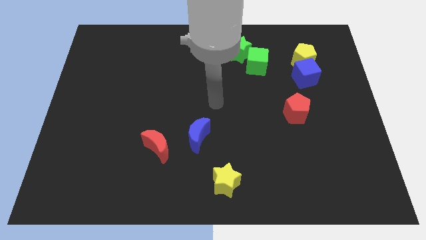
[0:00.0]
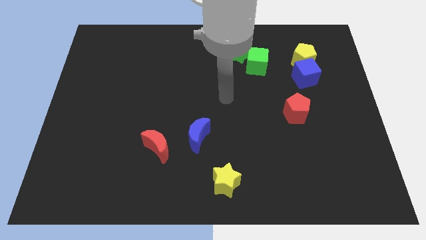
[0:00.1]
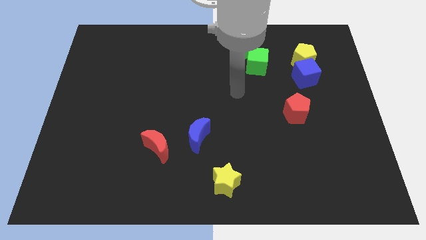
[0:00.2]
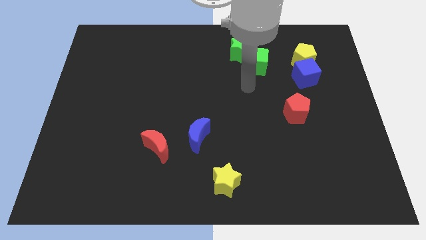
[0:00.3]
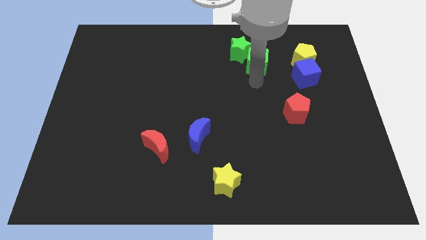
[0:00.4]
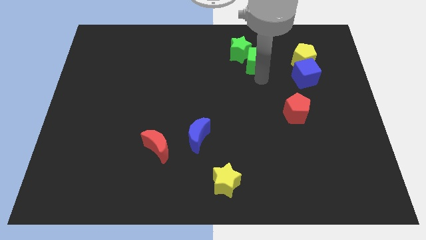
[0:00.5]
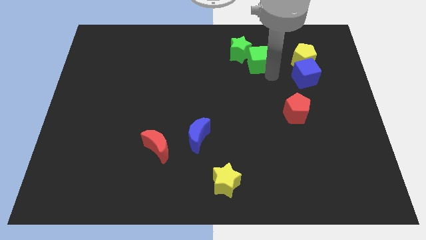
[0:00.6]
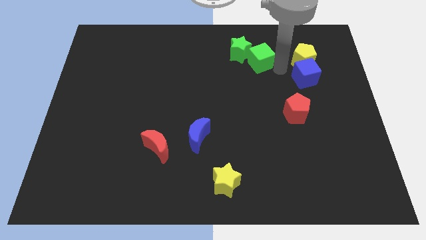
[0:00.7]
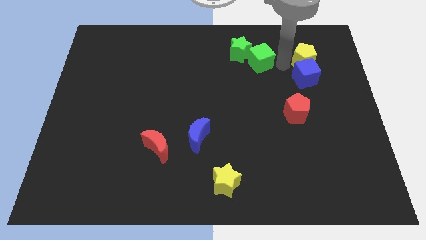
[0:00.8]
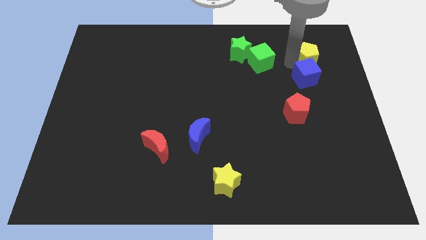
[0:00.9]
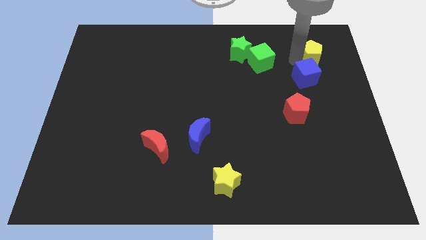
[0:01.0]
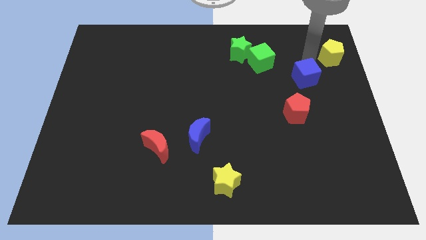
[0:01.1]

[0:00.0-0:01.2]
move the blue cube away from the yellow pentagon

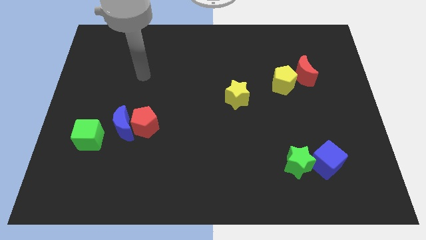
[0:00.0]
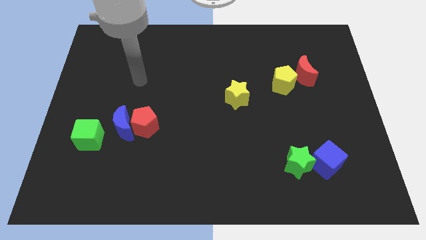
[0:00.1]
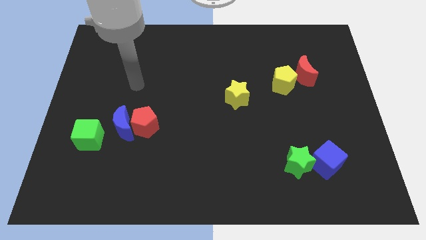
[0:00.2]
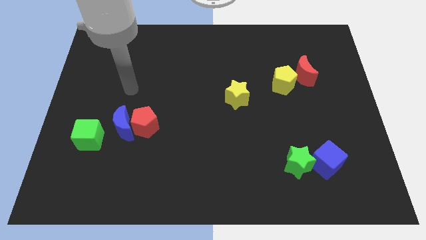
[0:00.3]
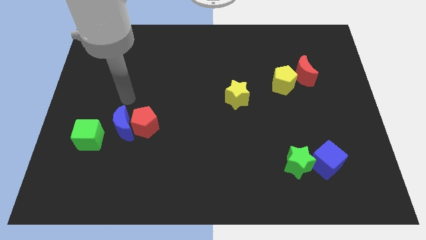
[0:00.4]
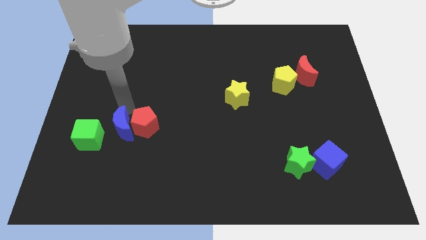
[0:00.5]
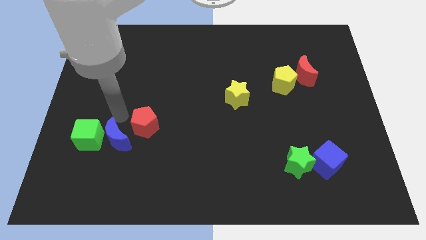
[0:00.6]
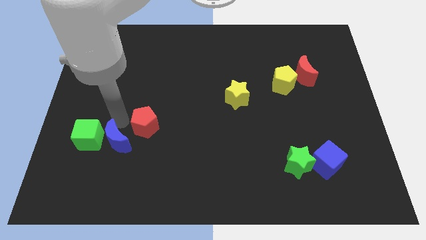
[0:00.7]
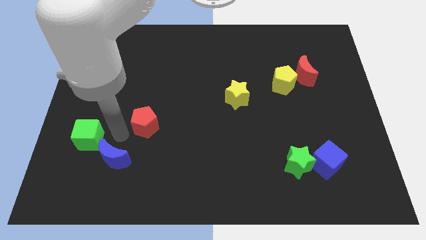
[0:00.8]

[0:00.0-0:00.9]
separate the red pentagon from the blue moon

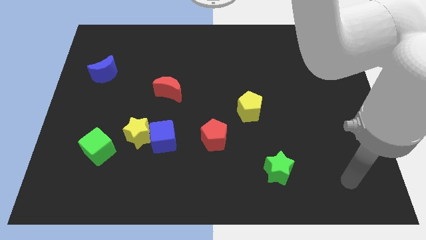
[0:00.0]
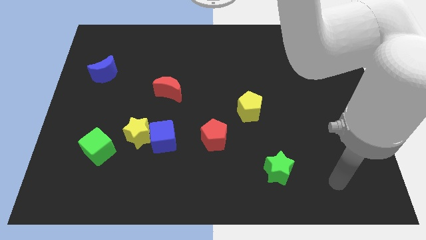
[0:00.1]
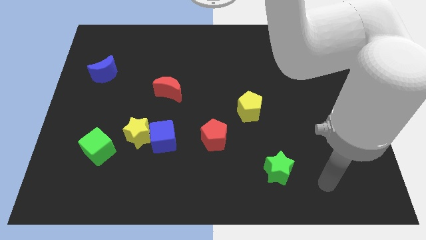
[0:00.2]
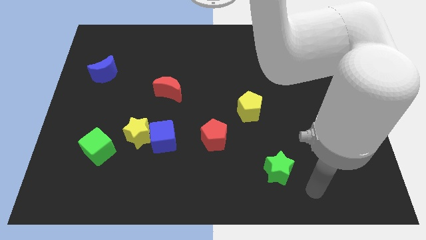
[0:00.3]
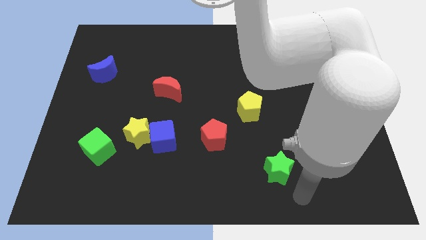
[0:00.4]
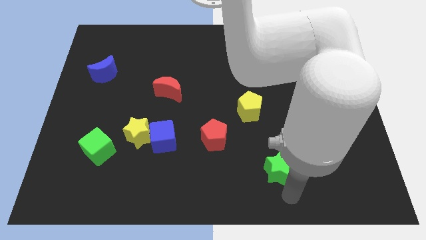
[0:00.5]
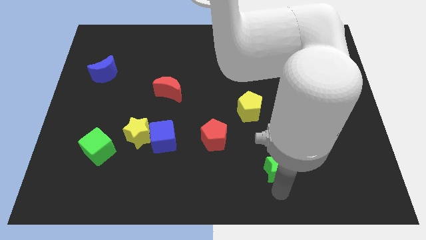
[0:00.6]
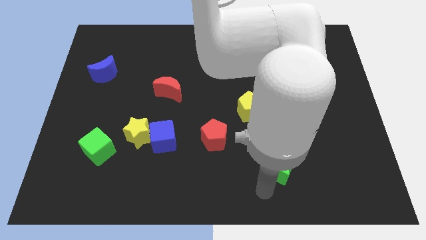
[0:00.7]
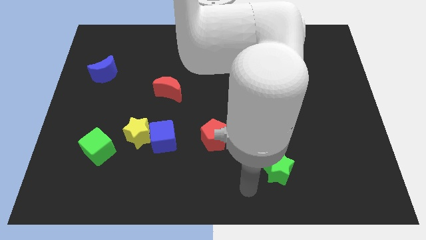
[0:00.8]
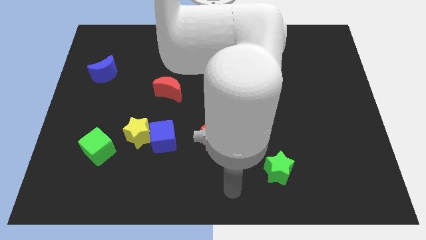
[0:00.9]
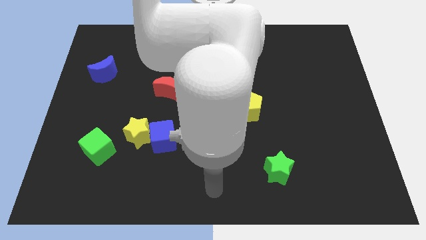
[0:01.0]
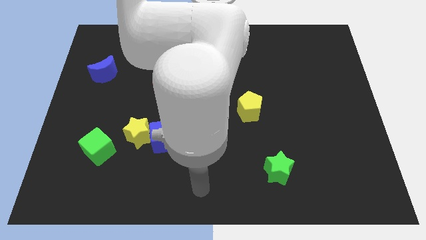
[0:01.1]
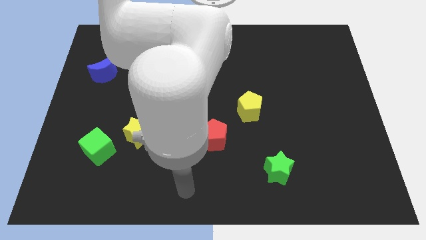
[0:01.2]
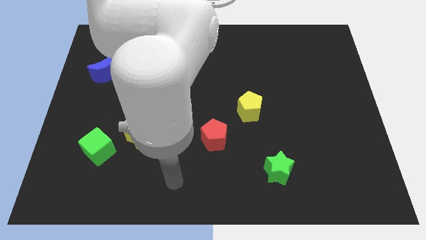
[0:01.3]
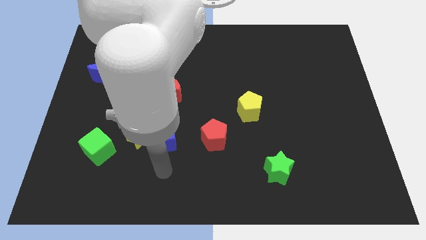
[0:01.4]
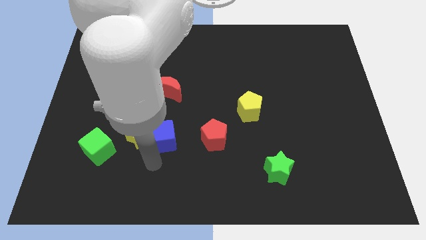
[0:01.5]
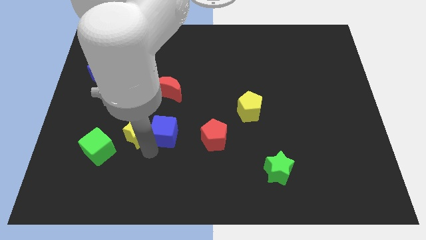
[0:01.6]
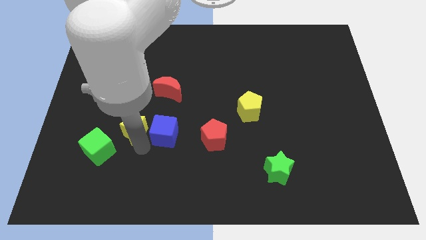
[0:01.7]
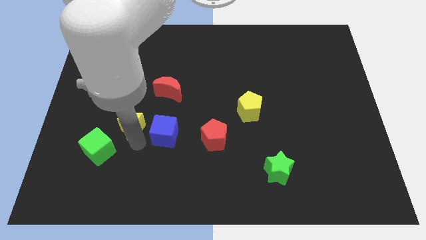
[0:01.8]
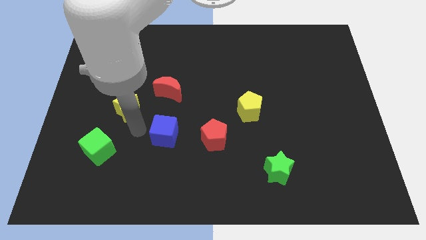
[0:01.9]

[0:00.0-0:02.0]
pull the blue cube apart from the yellow star

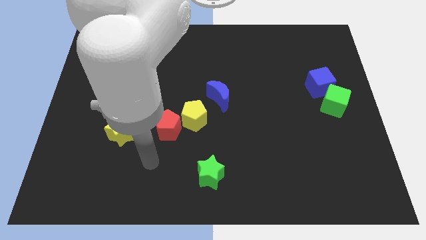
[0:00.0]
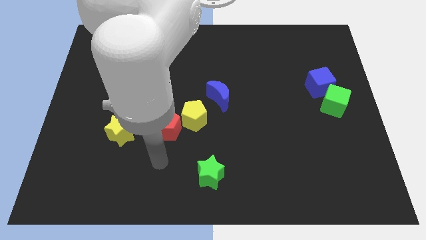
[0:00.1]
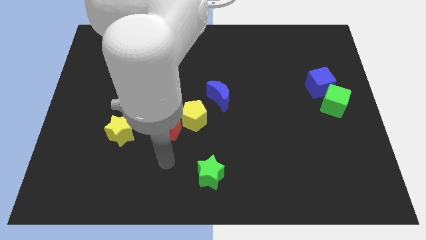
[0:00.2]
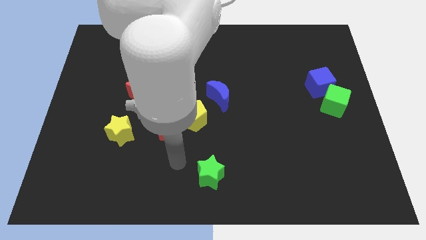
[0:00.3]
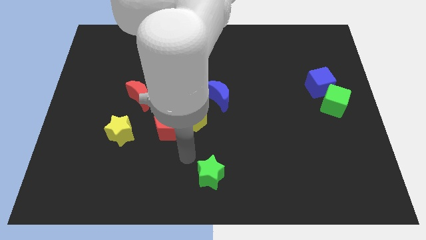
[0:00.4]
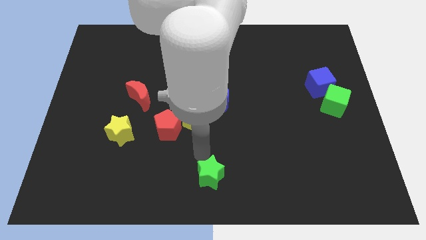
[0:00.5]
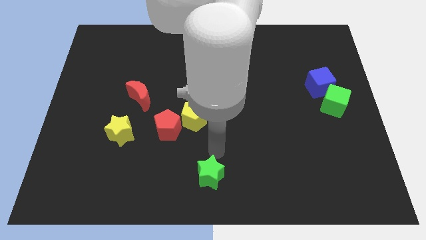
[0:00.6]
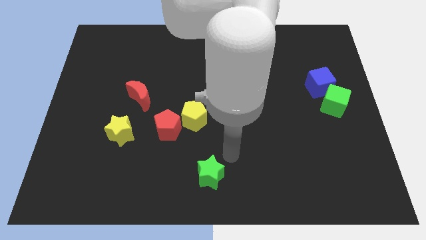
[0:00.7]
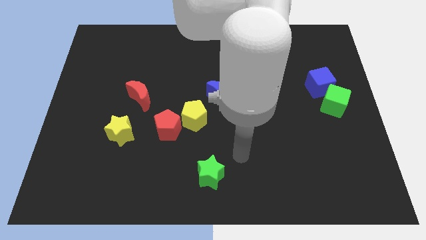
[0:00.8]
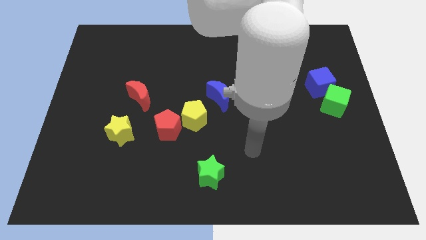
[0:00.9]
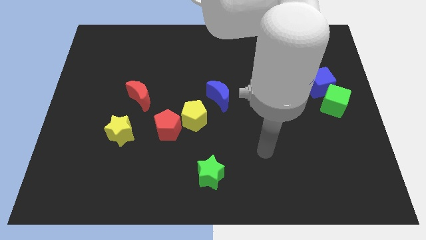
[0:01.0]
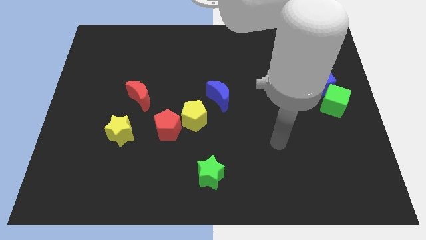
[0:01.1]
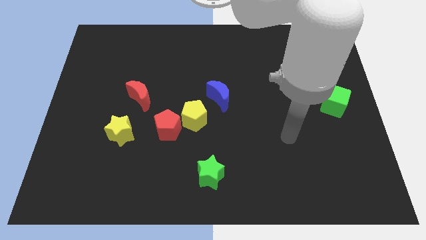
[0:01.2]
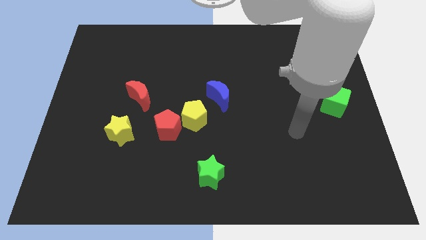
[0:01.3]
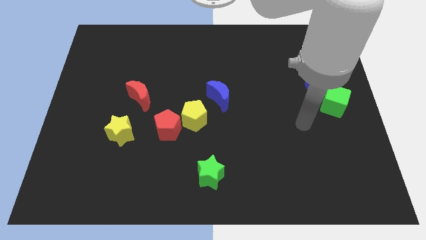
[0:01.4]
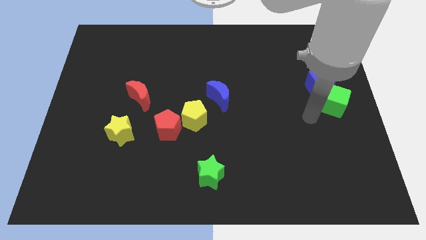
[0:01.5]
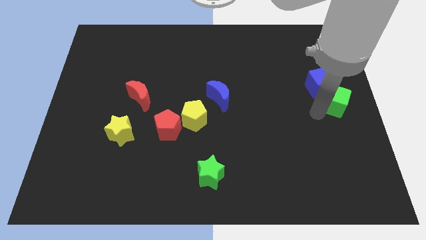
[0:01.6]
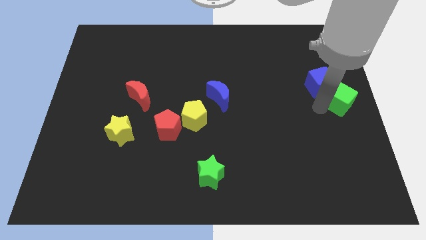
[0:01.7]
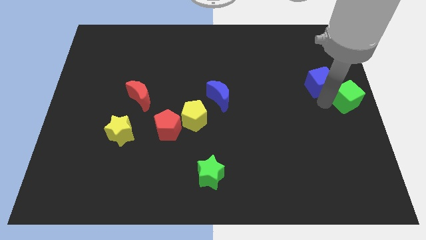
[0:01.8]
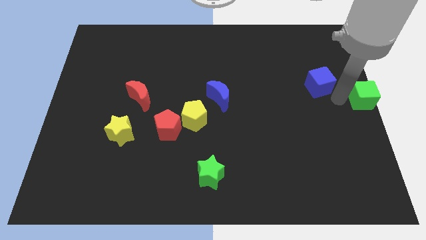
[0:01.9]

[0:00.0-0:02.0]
pull the blue cube apart from the green cube

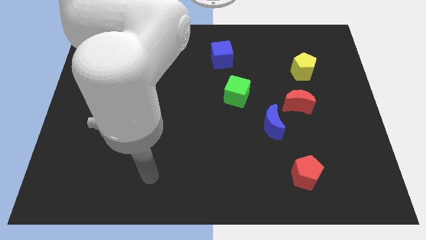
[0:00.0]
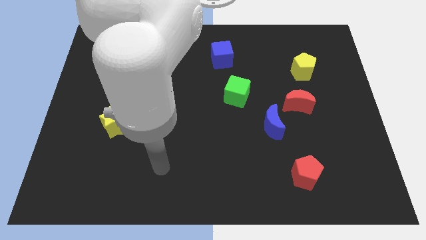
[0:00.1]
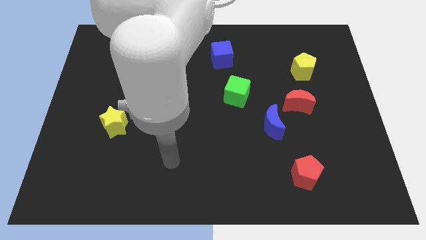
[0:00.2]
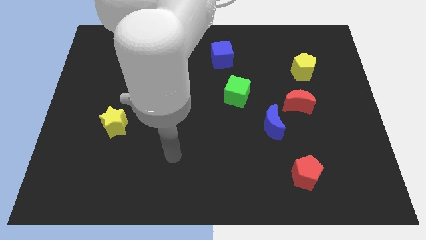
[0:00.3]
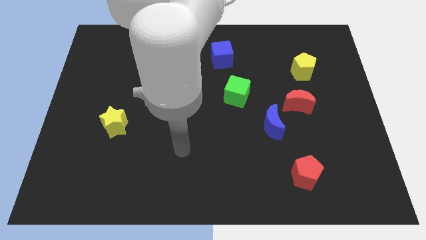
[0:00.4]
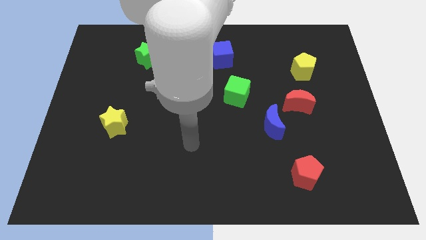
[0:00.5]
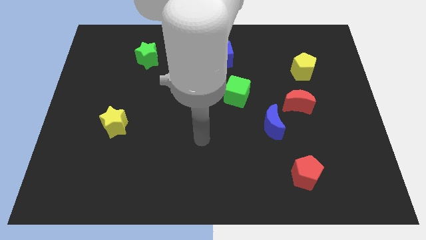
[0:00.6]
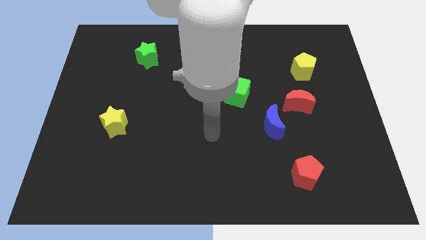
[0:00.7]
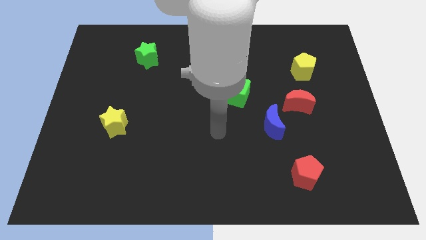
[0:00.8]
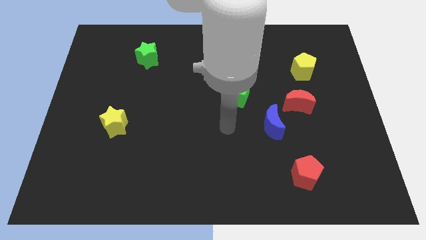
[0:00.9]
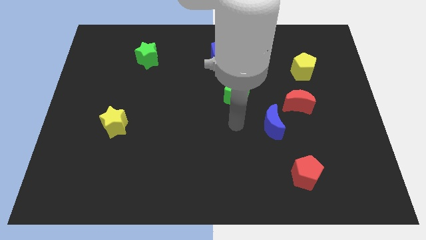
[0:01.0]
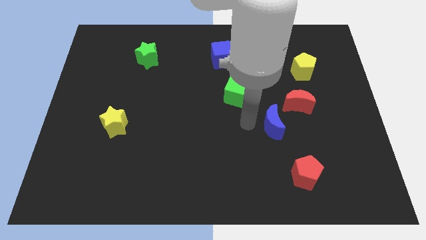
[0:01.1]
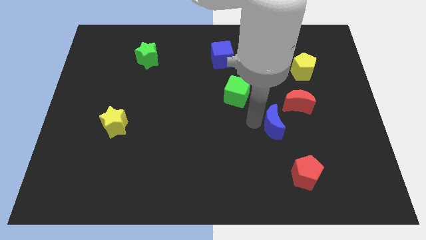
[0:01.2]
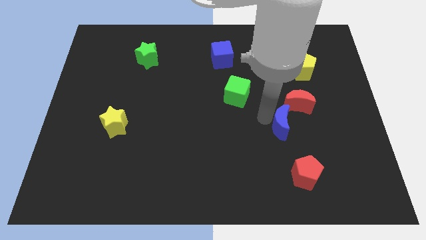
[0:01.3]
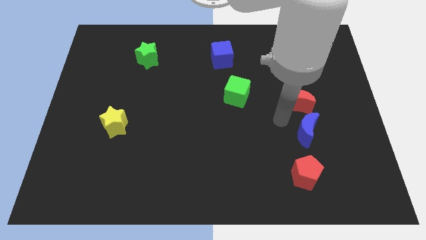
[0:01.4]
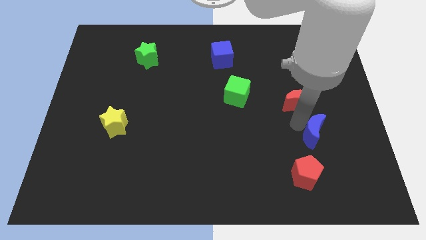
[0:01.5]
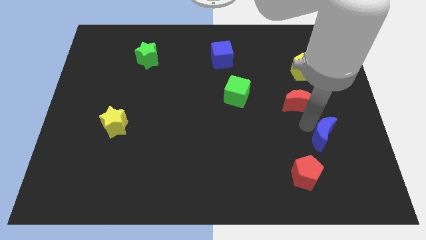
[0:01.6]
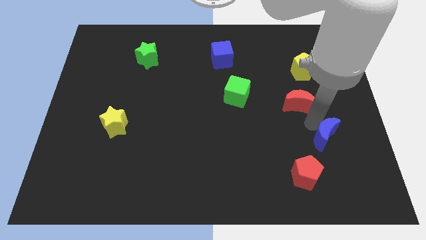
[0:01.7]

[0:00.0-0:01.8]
separate the red moon from the blue moon

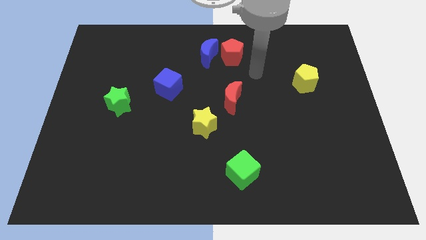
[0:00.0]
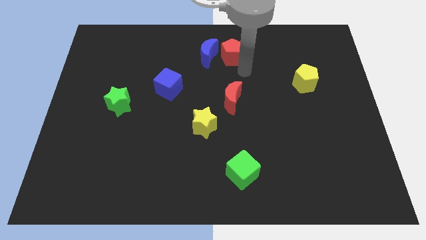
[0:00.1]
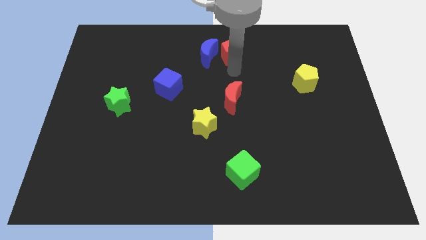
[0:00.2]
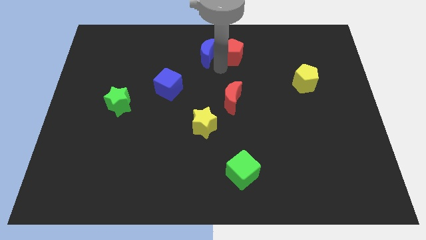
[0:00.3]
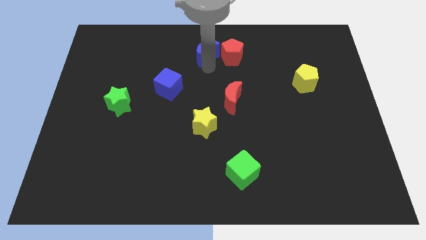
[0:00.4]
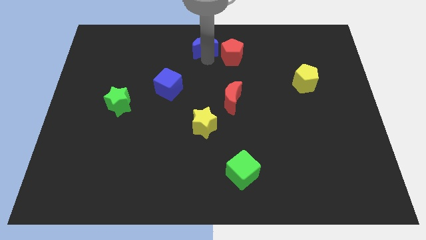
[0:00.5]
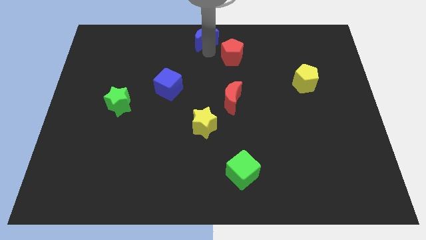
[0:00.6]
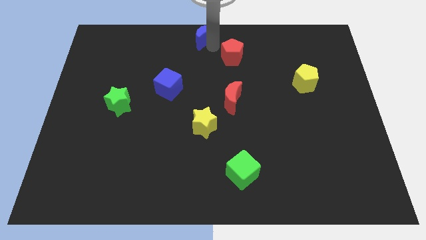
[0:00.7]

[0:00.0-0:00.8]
pull the red pentagon apart from the blue moon

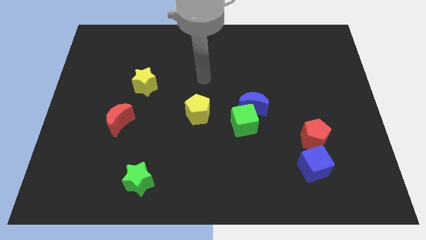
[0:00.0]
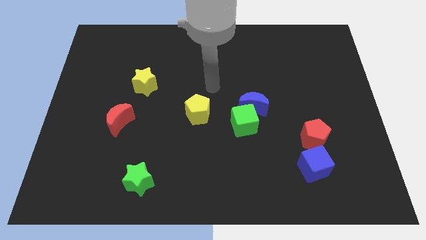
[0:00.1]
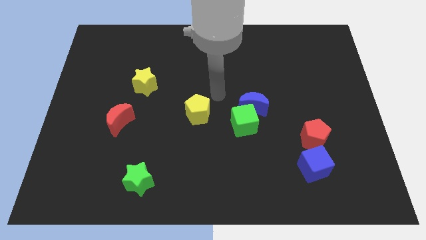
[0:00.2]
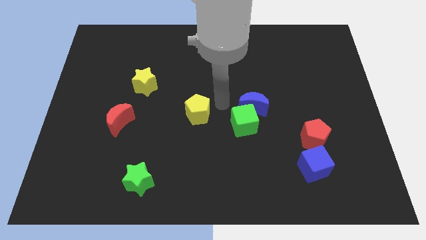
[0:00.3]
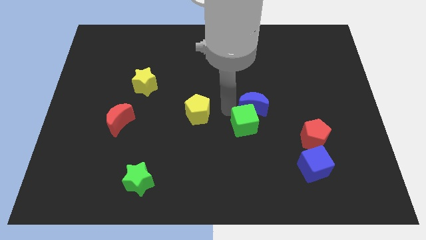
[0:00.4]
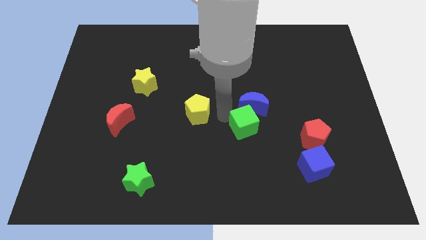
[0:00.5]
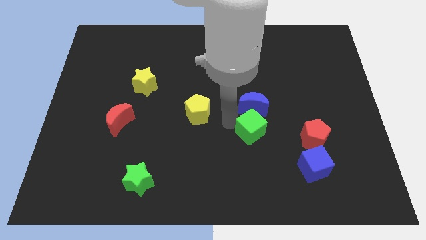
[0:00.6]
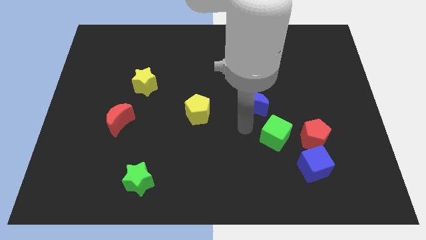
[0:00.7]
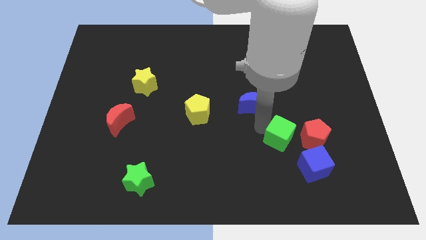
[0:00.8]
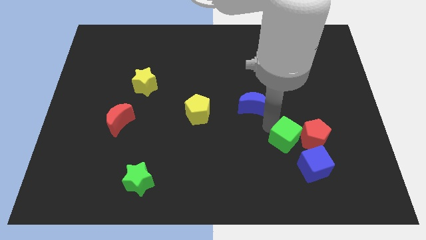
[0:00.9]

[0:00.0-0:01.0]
move the blue moon away from the green cube
